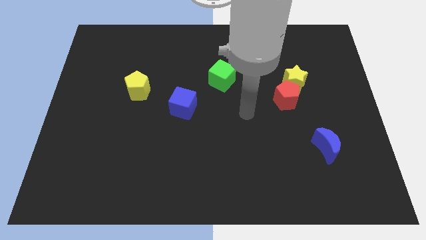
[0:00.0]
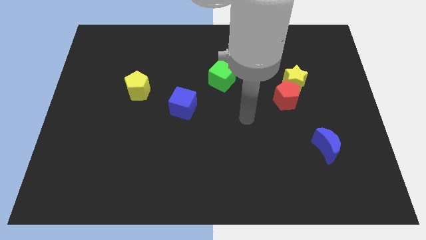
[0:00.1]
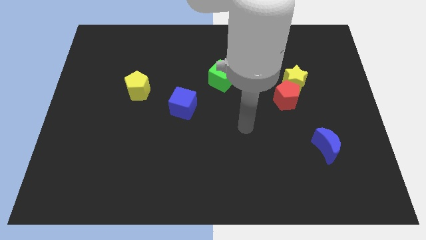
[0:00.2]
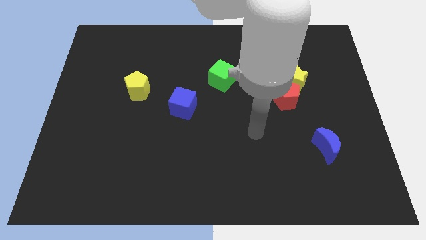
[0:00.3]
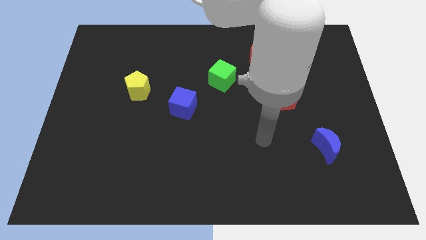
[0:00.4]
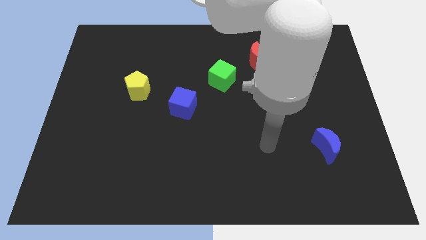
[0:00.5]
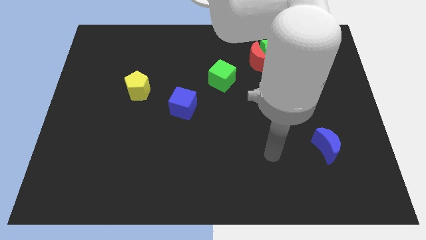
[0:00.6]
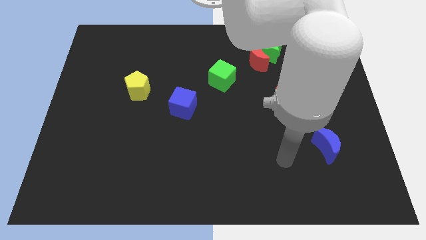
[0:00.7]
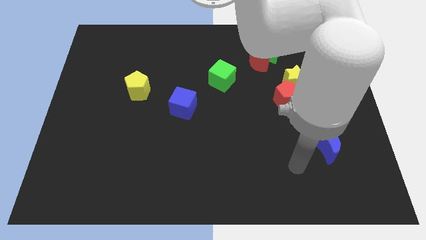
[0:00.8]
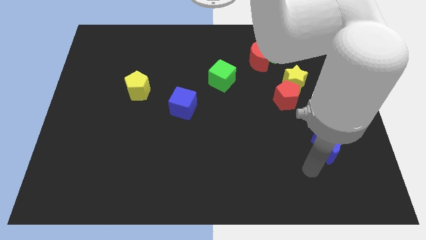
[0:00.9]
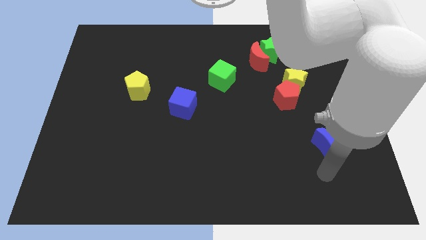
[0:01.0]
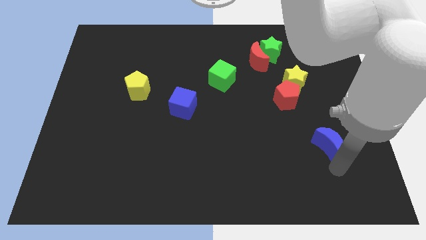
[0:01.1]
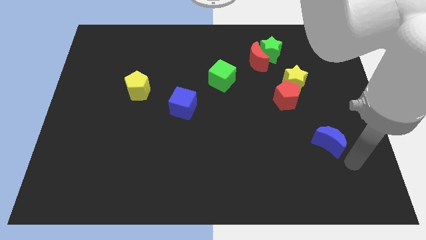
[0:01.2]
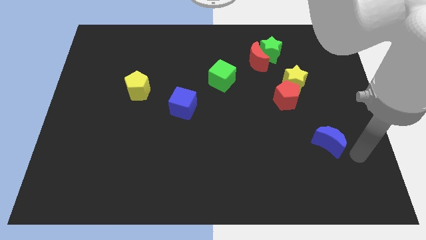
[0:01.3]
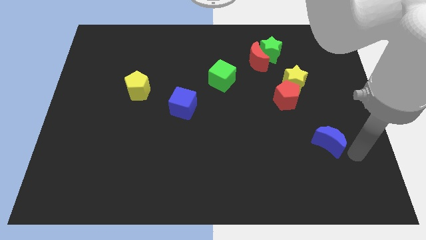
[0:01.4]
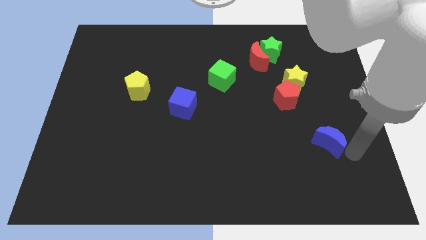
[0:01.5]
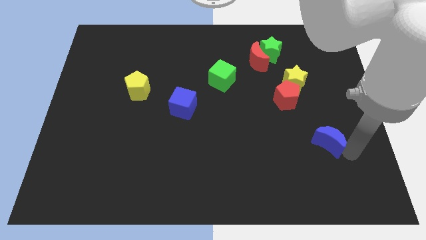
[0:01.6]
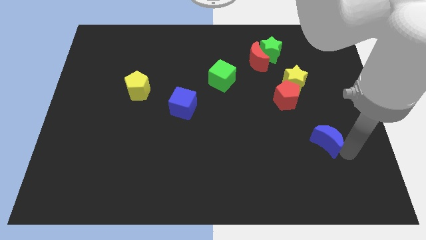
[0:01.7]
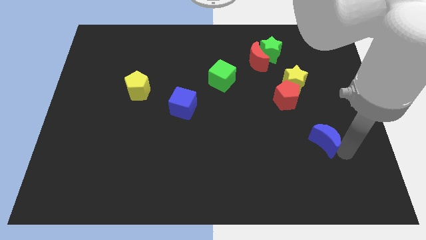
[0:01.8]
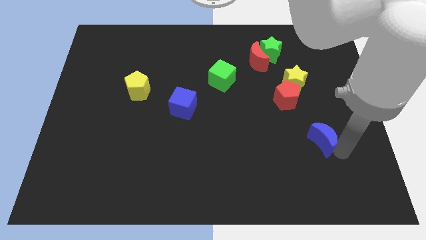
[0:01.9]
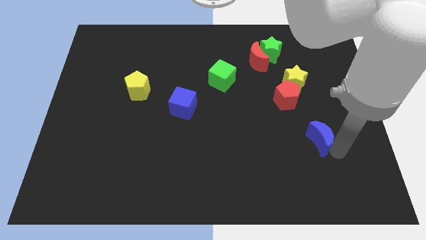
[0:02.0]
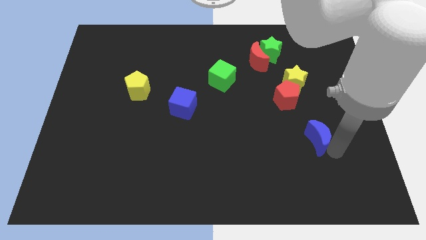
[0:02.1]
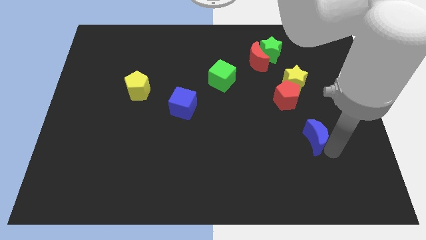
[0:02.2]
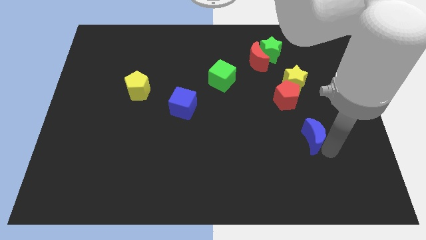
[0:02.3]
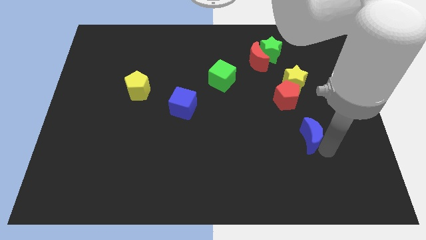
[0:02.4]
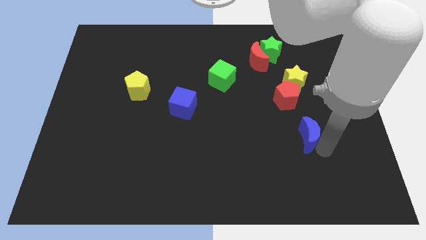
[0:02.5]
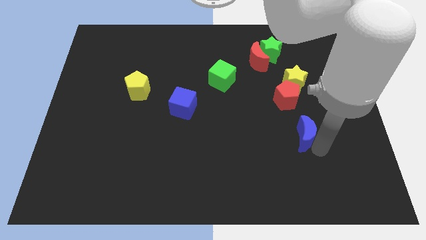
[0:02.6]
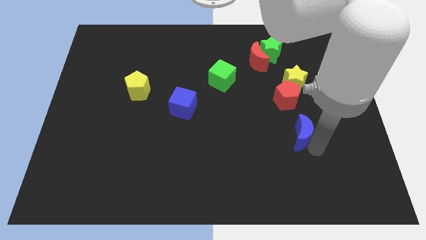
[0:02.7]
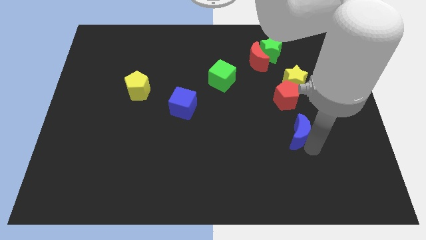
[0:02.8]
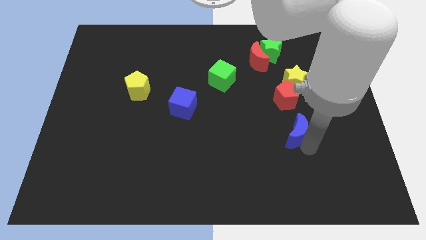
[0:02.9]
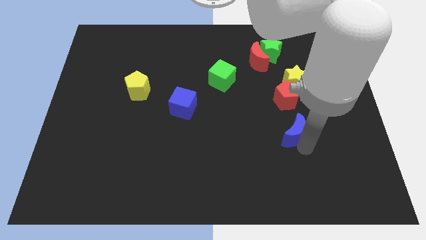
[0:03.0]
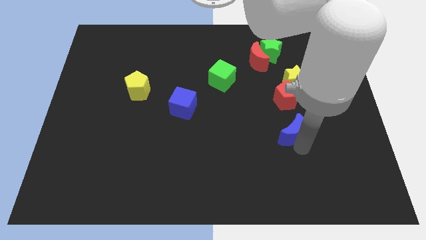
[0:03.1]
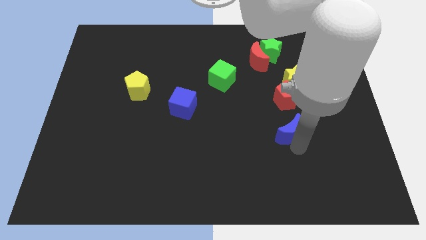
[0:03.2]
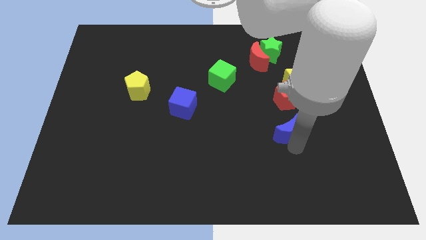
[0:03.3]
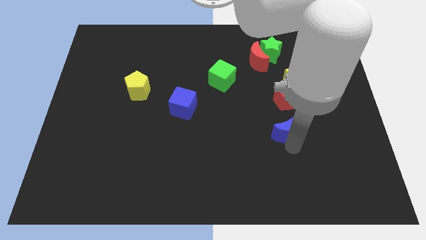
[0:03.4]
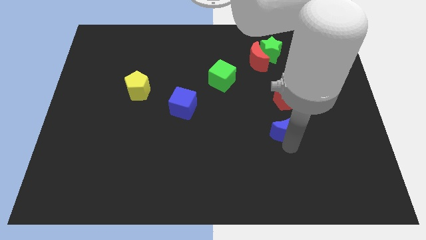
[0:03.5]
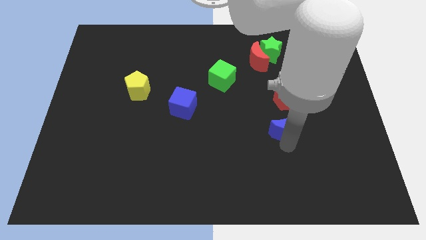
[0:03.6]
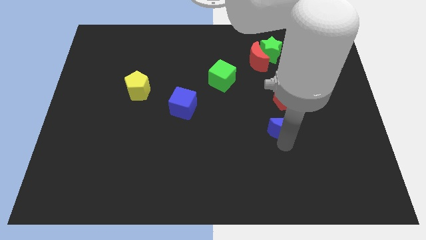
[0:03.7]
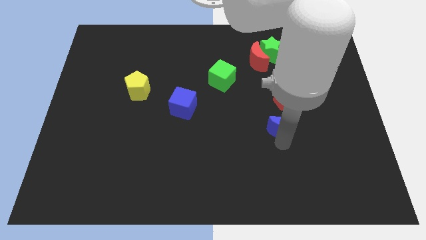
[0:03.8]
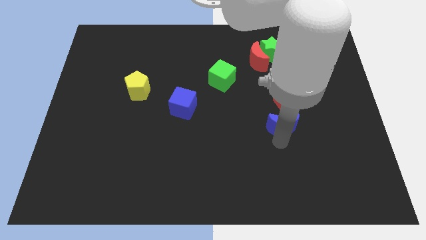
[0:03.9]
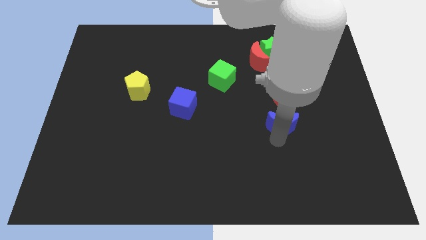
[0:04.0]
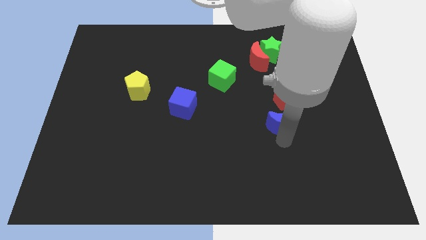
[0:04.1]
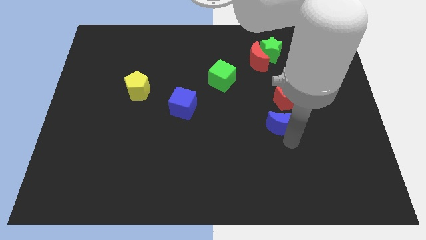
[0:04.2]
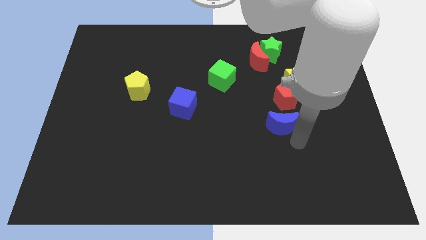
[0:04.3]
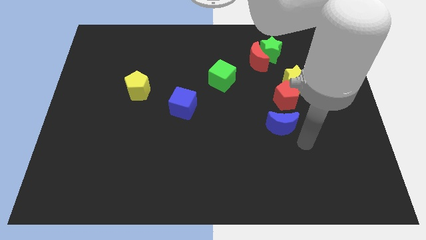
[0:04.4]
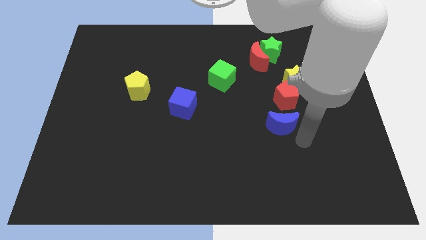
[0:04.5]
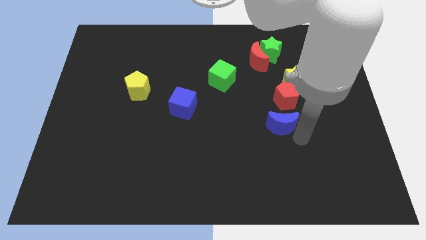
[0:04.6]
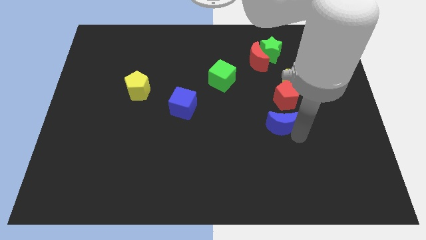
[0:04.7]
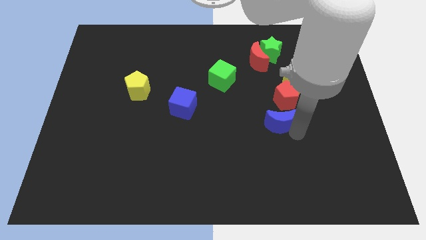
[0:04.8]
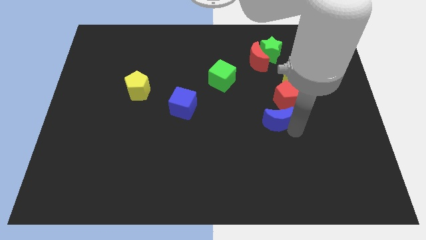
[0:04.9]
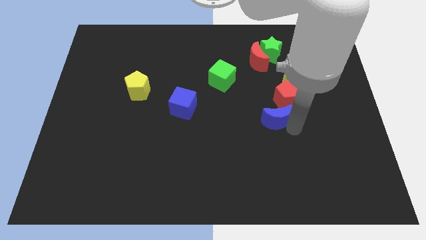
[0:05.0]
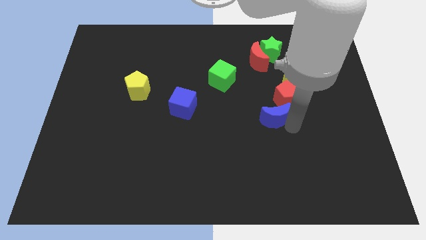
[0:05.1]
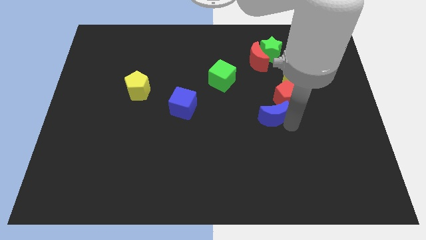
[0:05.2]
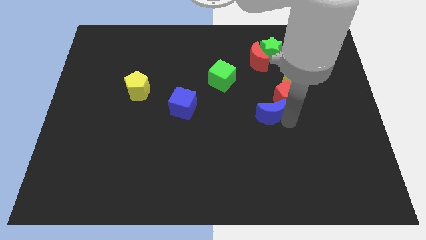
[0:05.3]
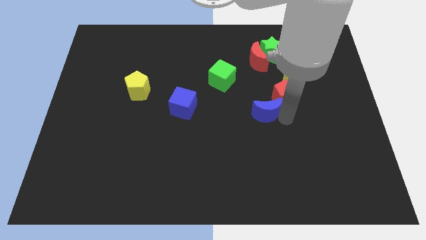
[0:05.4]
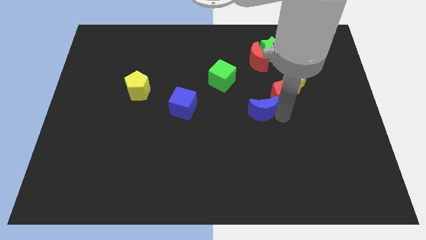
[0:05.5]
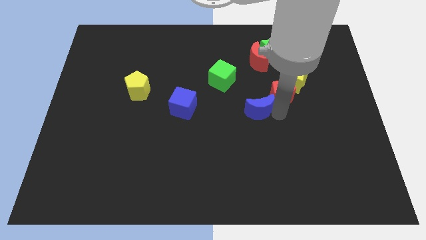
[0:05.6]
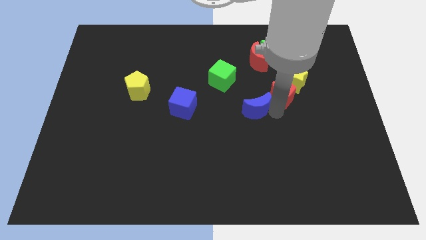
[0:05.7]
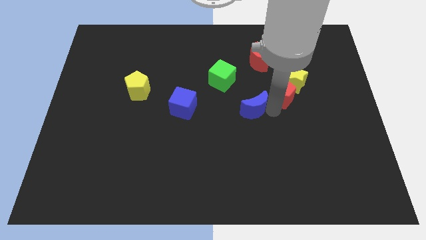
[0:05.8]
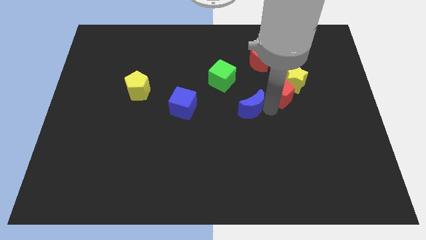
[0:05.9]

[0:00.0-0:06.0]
push the blue moon just right of the blue cube

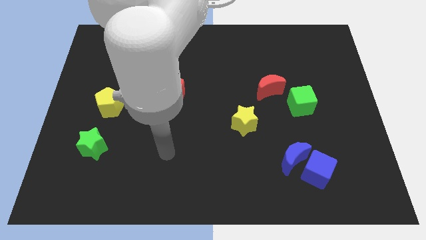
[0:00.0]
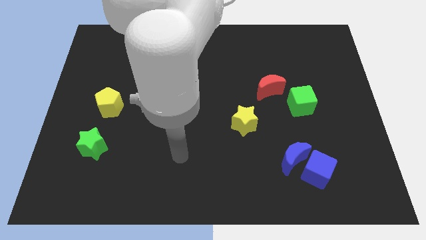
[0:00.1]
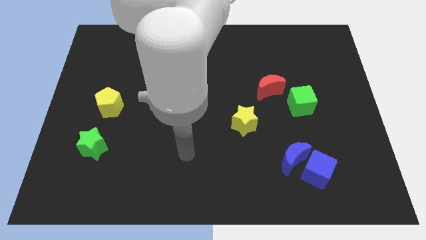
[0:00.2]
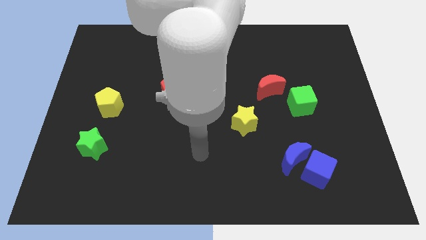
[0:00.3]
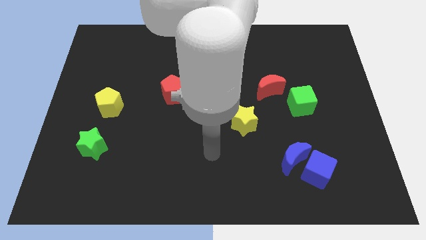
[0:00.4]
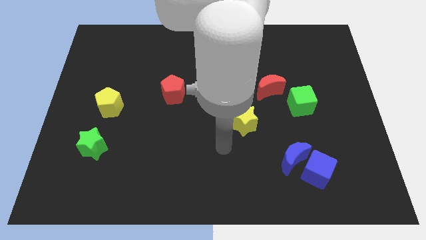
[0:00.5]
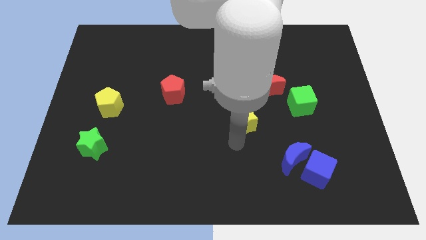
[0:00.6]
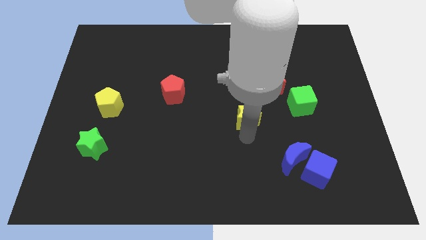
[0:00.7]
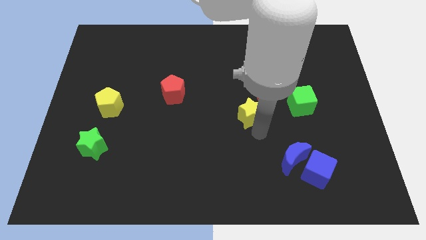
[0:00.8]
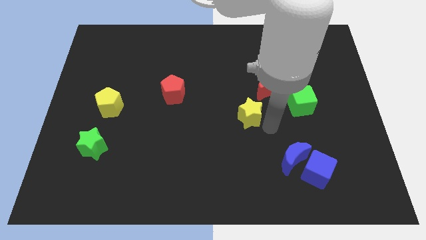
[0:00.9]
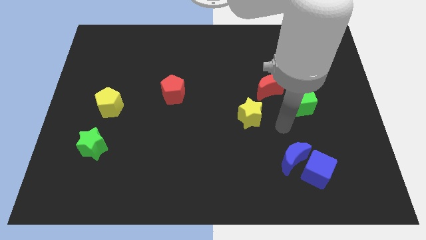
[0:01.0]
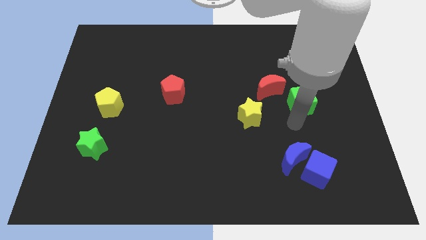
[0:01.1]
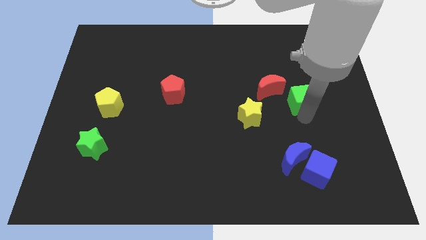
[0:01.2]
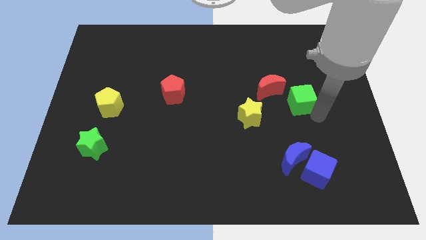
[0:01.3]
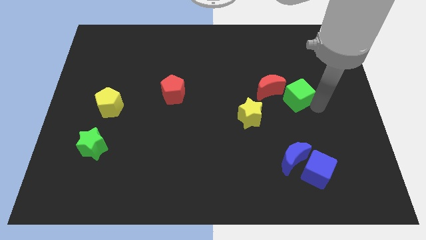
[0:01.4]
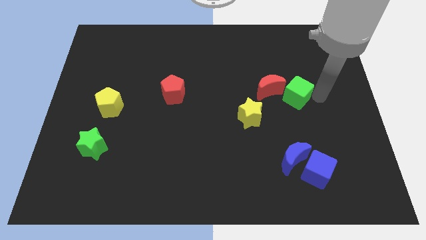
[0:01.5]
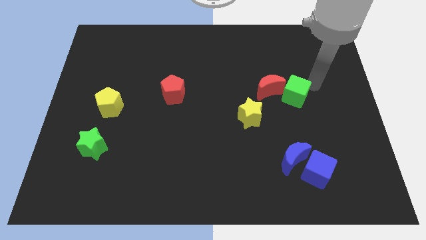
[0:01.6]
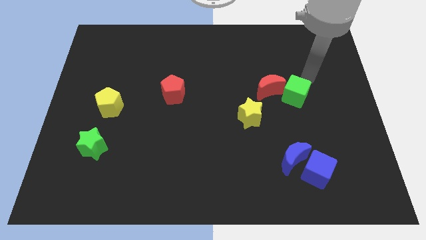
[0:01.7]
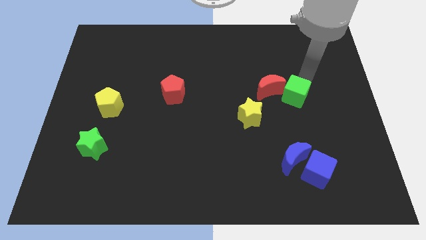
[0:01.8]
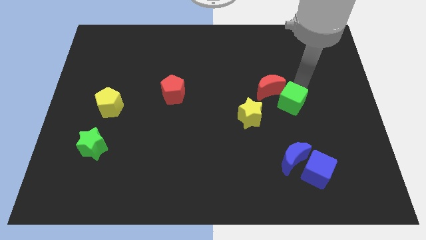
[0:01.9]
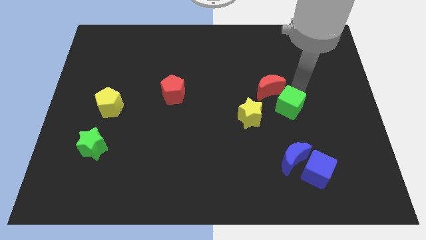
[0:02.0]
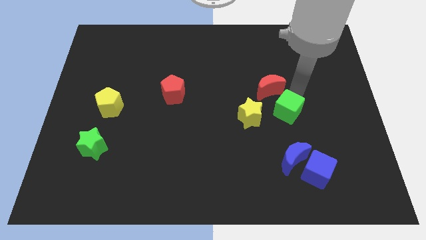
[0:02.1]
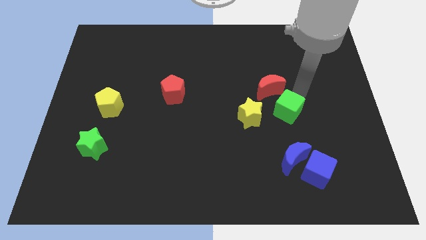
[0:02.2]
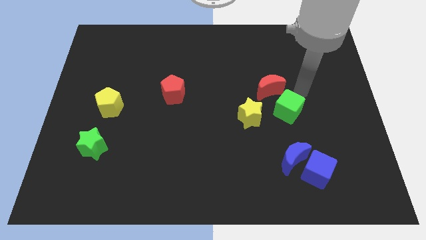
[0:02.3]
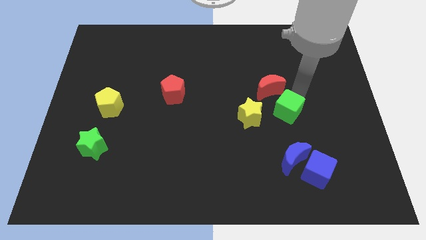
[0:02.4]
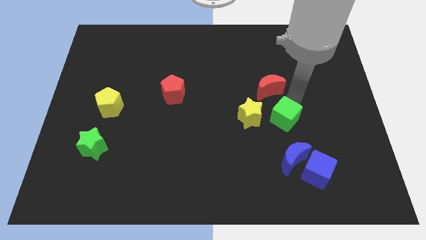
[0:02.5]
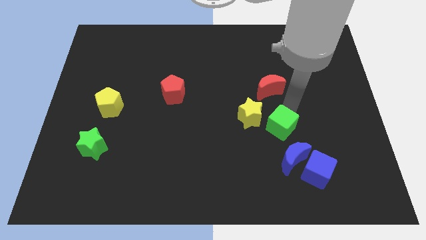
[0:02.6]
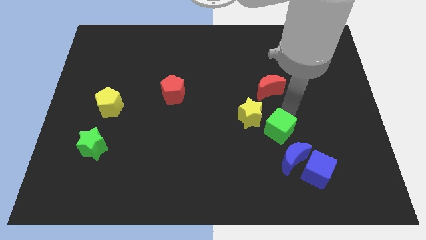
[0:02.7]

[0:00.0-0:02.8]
push the green cube diagonally up and to the left of the blue moon
